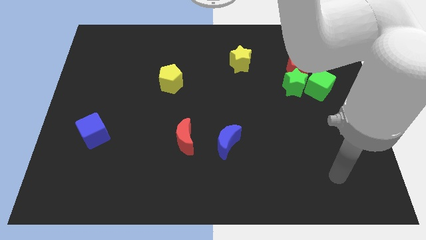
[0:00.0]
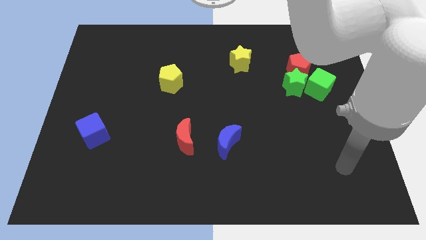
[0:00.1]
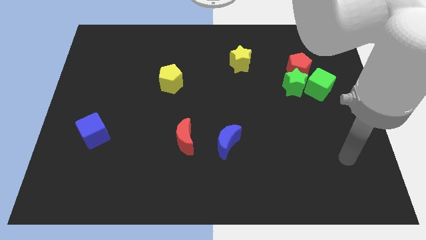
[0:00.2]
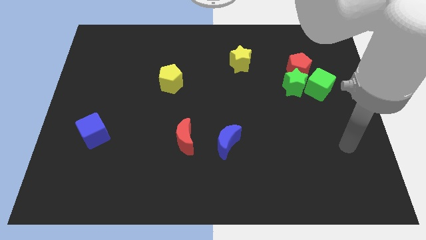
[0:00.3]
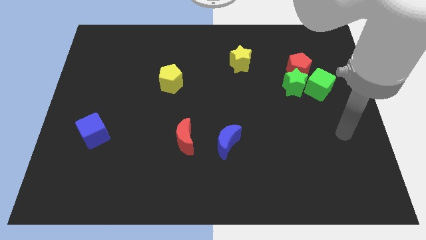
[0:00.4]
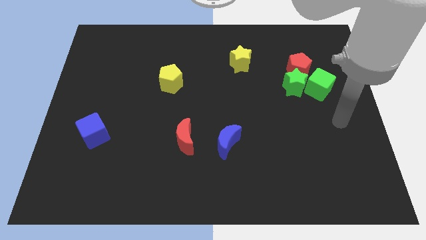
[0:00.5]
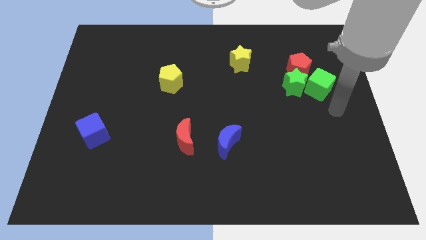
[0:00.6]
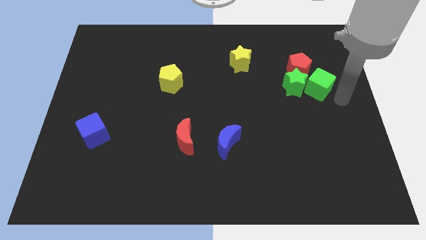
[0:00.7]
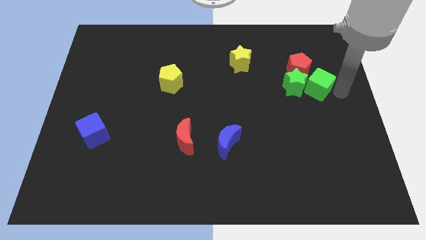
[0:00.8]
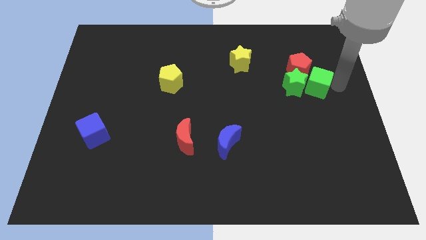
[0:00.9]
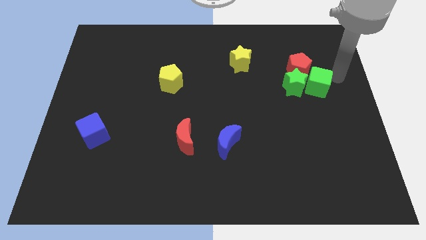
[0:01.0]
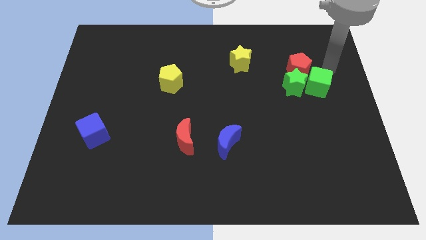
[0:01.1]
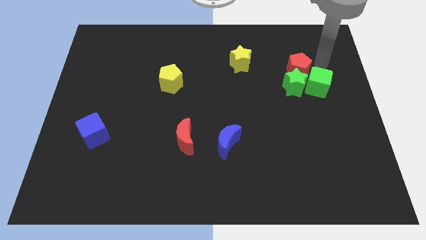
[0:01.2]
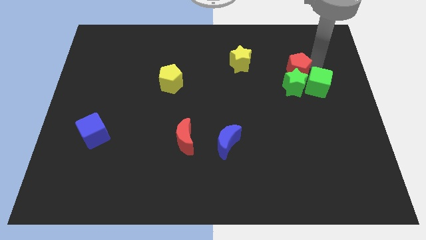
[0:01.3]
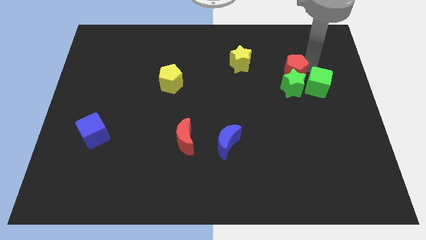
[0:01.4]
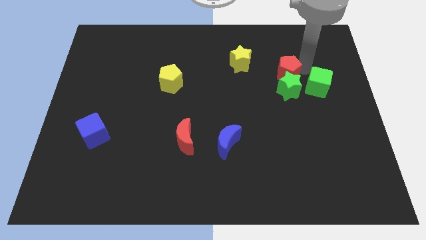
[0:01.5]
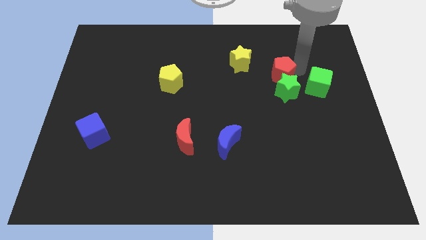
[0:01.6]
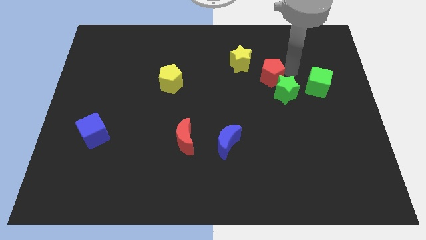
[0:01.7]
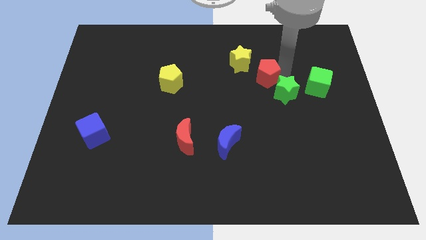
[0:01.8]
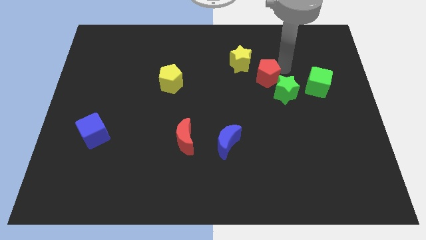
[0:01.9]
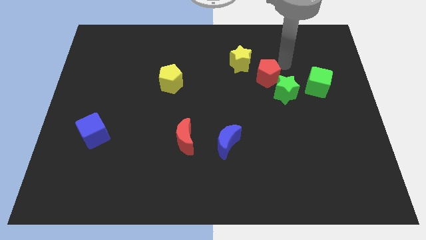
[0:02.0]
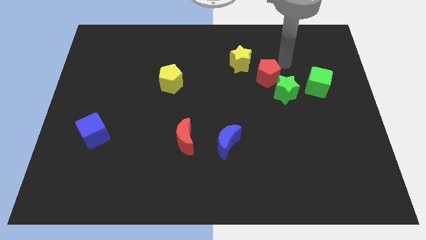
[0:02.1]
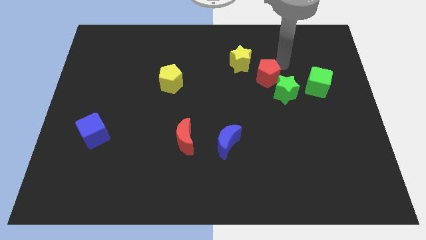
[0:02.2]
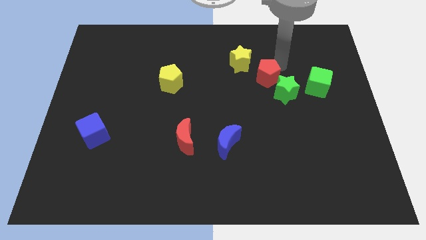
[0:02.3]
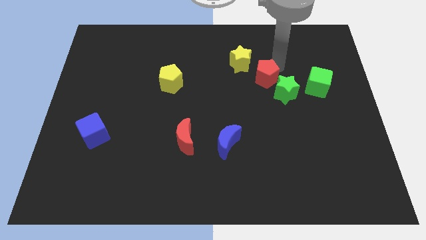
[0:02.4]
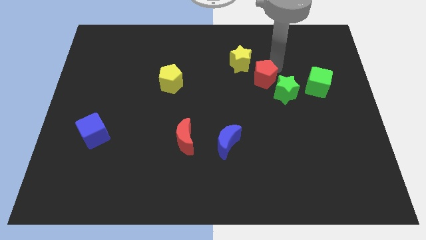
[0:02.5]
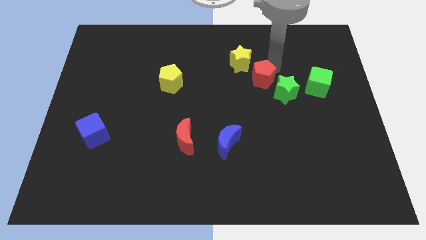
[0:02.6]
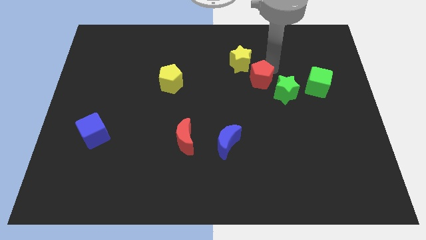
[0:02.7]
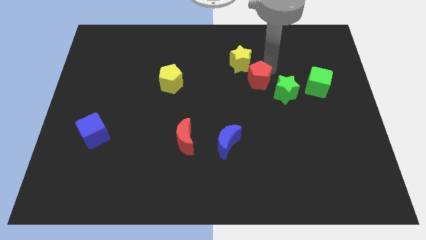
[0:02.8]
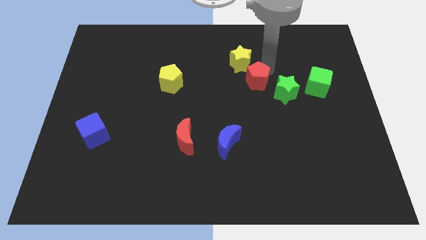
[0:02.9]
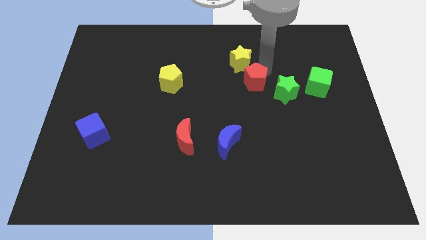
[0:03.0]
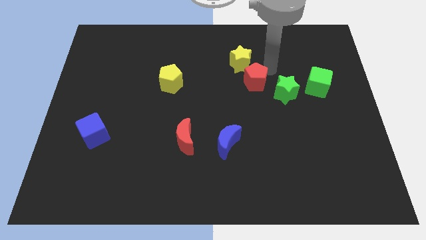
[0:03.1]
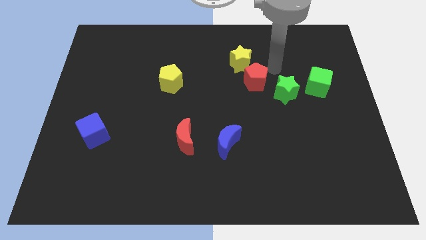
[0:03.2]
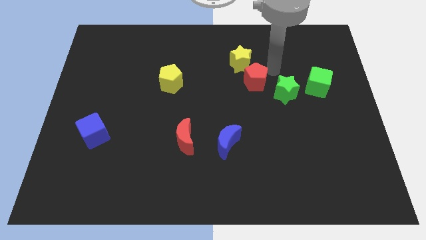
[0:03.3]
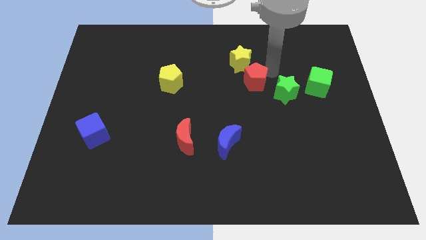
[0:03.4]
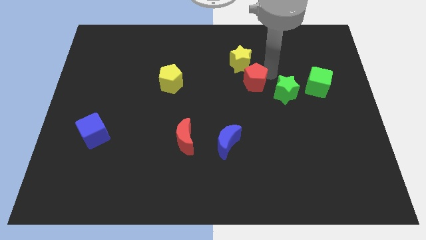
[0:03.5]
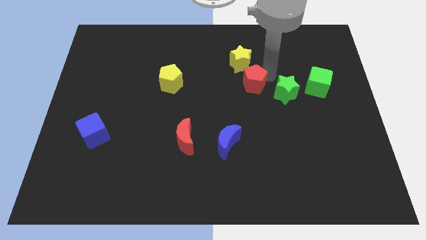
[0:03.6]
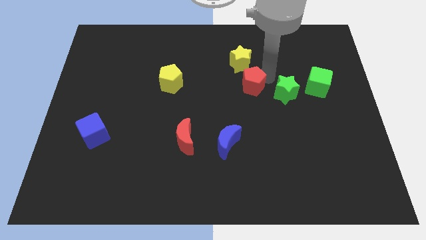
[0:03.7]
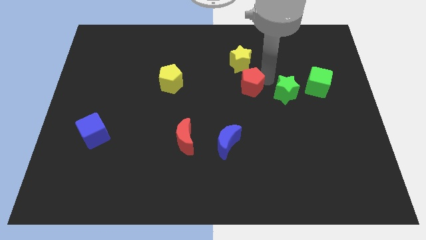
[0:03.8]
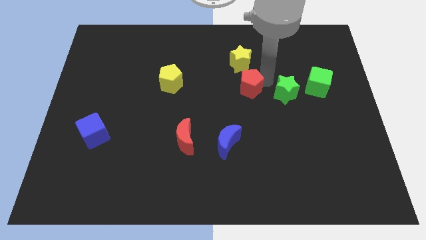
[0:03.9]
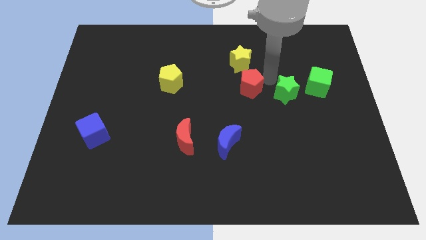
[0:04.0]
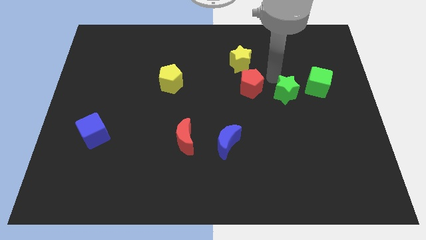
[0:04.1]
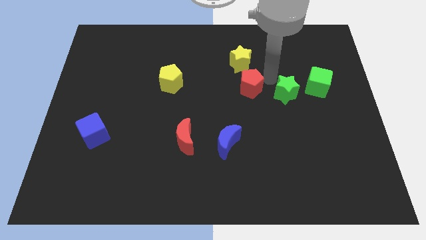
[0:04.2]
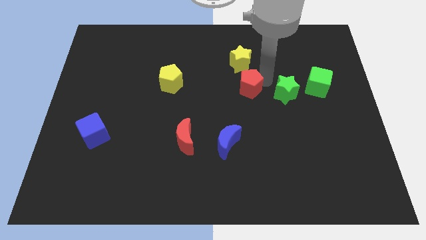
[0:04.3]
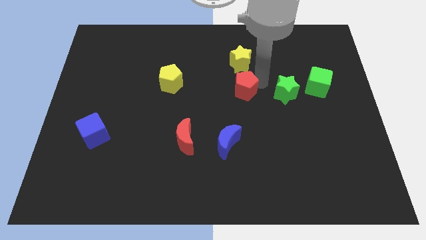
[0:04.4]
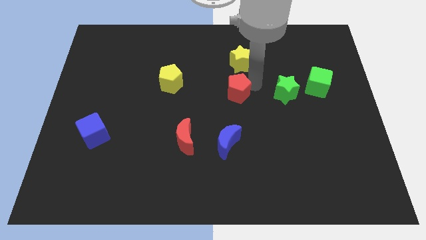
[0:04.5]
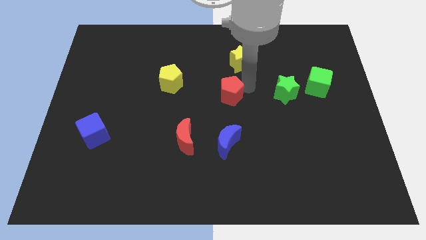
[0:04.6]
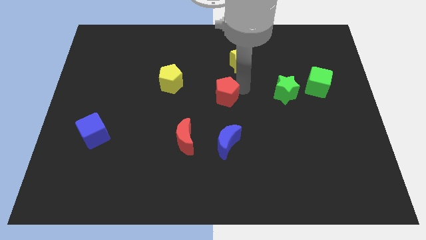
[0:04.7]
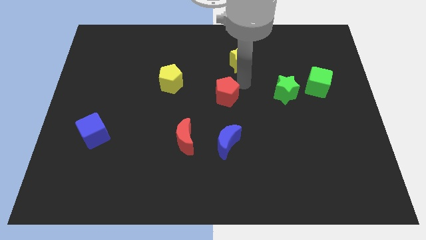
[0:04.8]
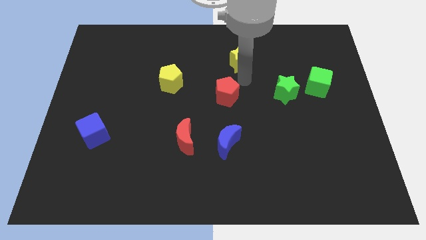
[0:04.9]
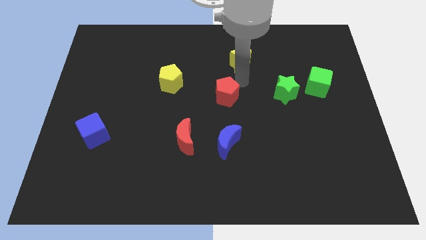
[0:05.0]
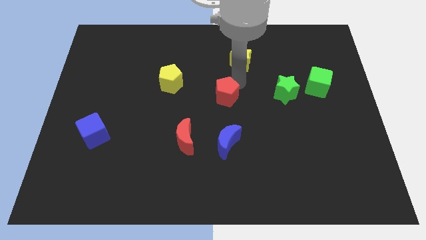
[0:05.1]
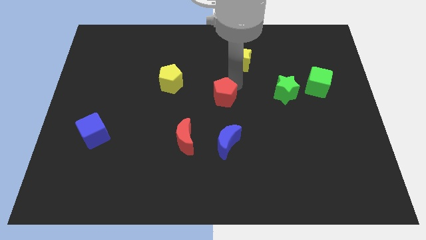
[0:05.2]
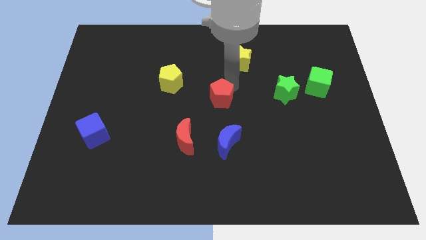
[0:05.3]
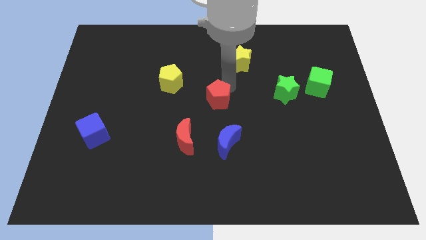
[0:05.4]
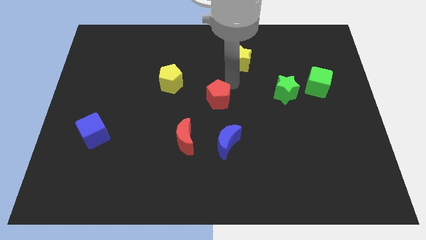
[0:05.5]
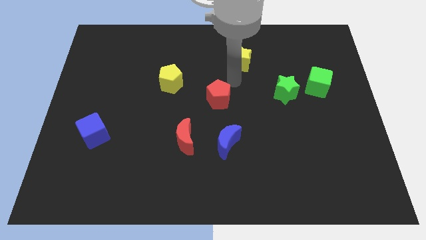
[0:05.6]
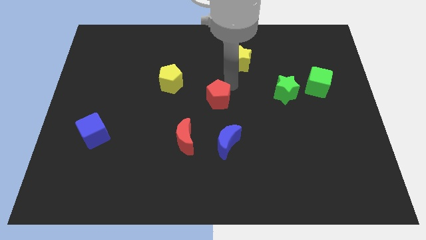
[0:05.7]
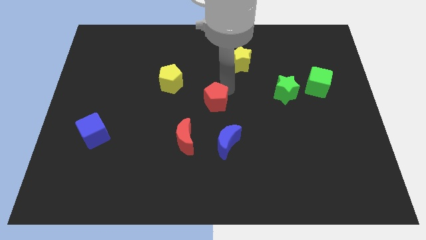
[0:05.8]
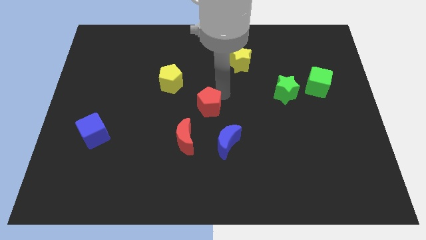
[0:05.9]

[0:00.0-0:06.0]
slide the red pentagon downwards and left

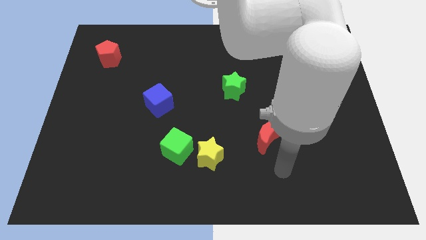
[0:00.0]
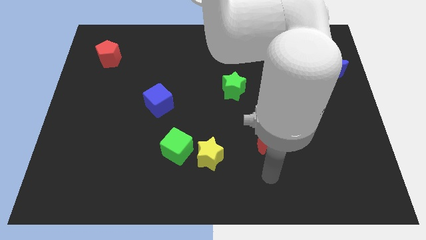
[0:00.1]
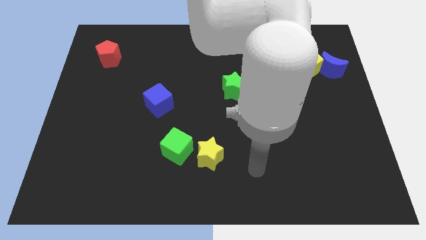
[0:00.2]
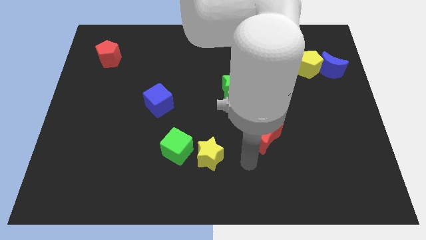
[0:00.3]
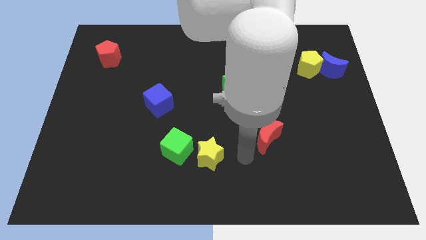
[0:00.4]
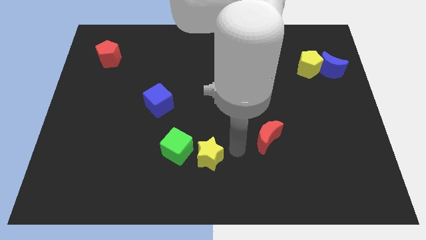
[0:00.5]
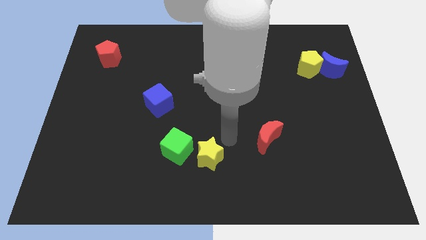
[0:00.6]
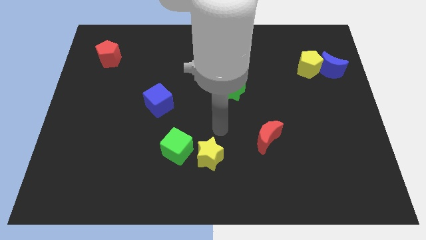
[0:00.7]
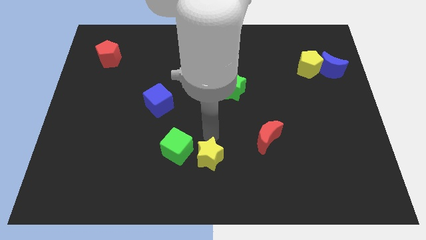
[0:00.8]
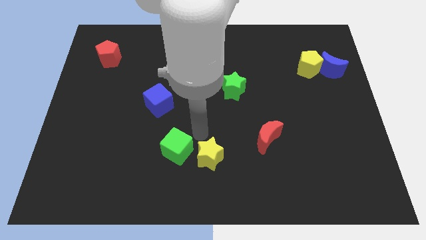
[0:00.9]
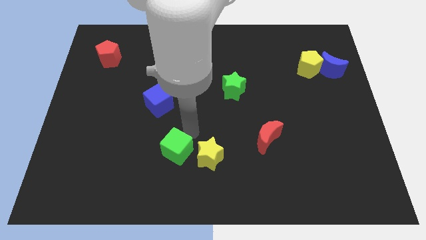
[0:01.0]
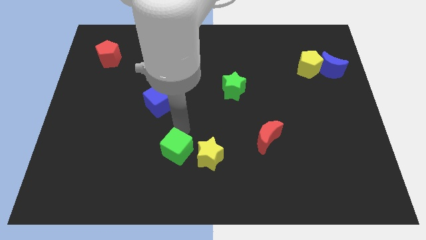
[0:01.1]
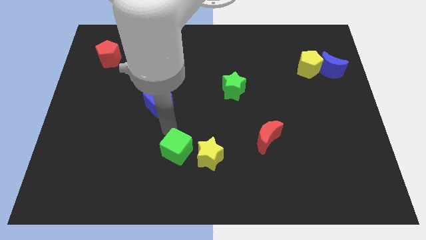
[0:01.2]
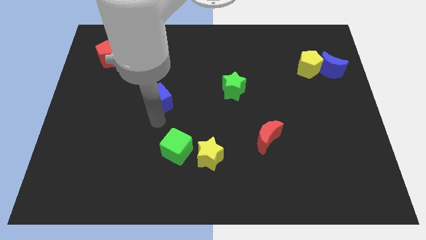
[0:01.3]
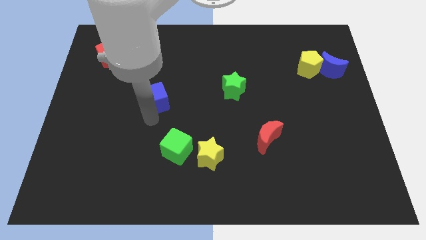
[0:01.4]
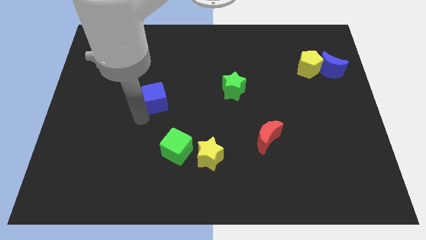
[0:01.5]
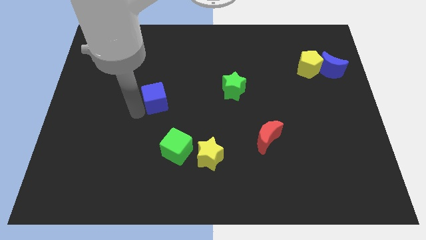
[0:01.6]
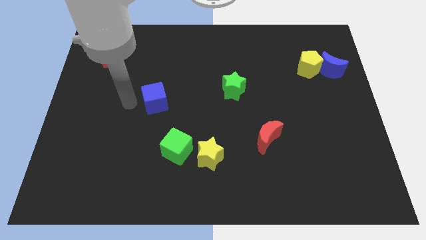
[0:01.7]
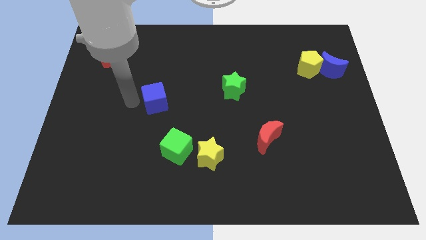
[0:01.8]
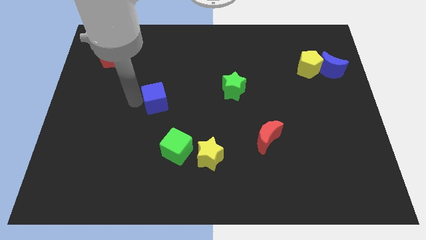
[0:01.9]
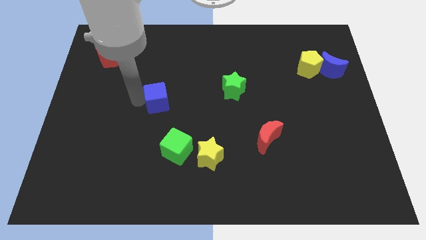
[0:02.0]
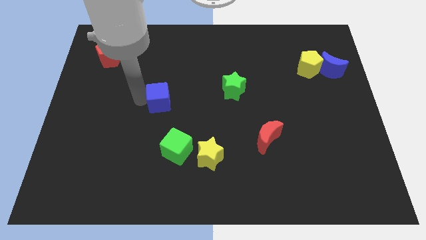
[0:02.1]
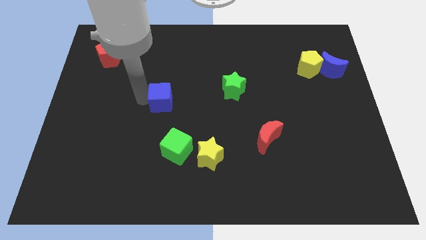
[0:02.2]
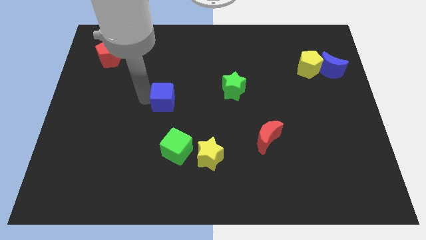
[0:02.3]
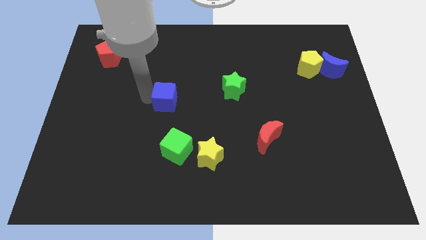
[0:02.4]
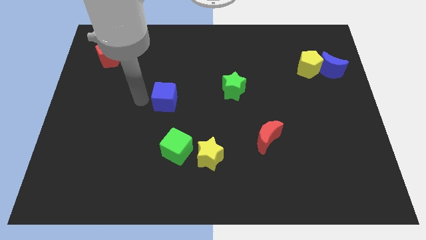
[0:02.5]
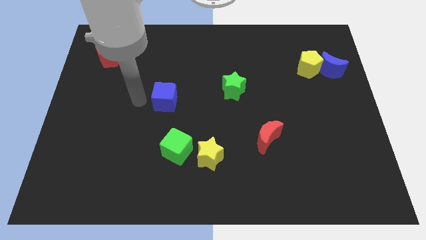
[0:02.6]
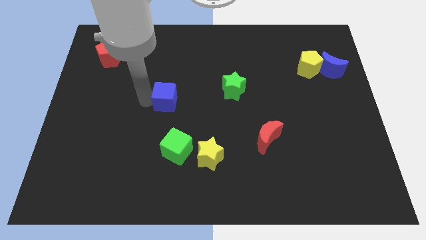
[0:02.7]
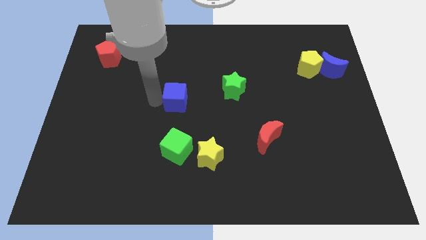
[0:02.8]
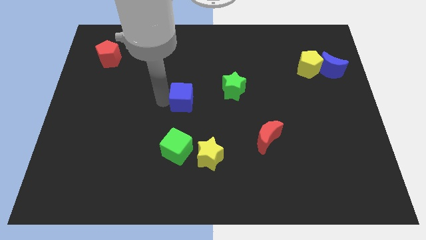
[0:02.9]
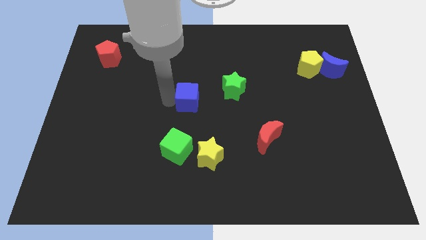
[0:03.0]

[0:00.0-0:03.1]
slightly move the blue cube to the right
